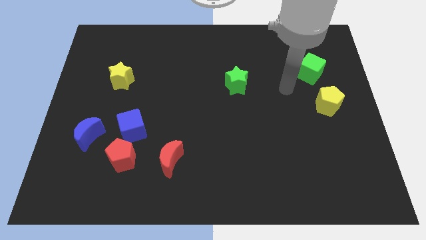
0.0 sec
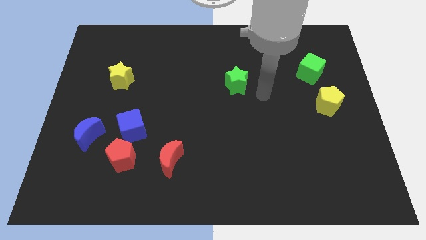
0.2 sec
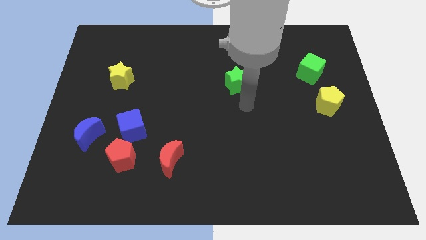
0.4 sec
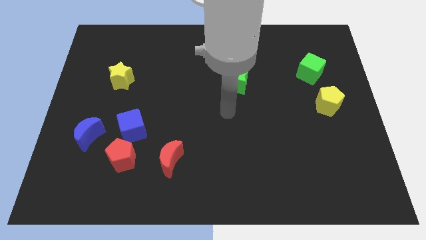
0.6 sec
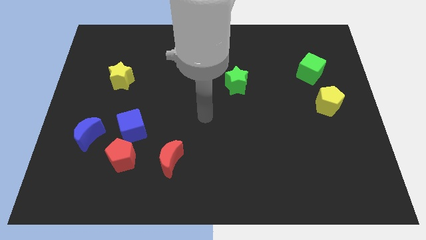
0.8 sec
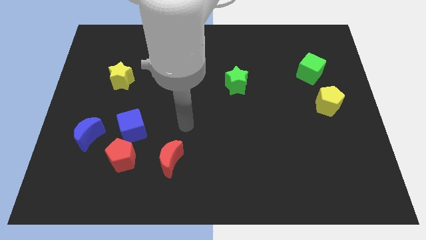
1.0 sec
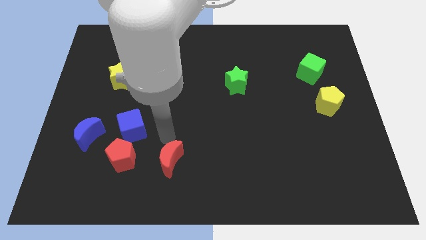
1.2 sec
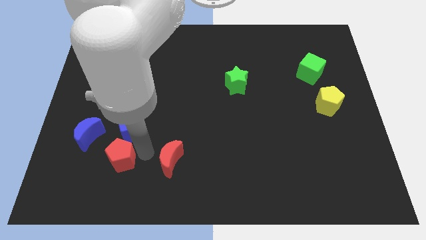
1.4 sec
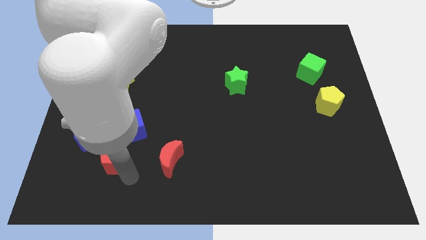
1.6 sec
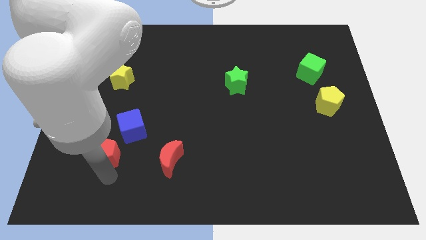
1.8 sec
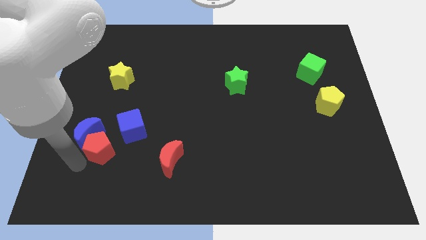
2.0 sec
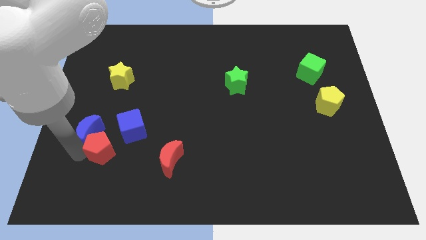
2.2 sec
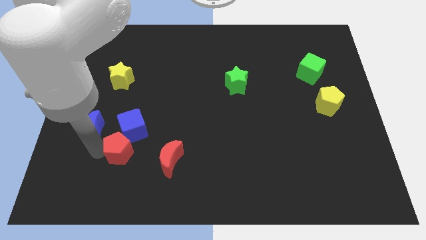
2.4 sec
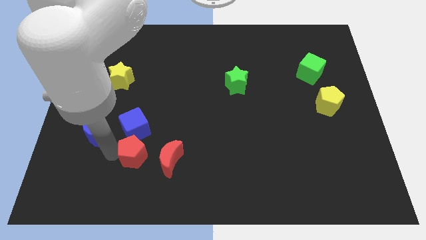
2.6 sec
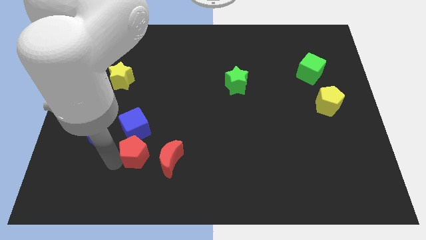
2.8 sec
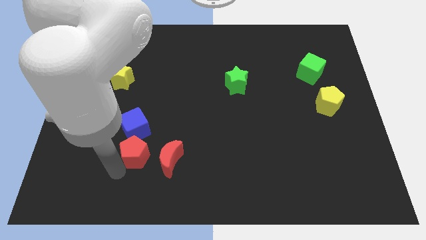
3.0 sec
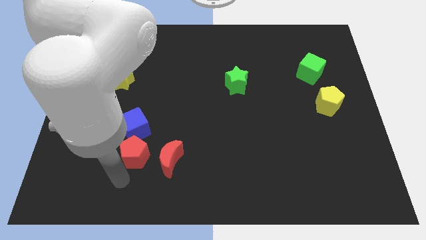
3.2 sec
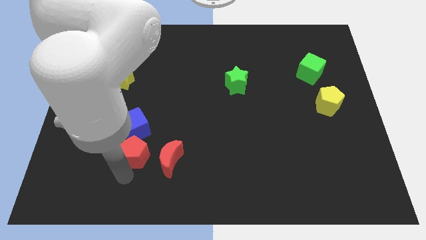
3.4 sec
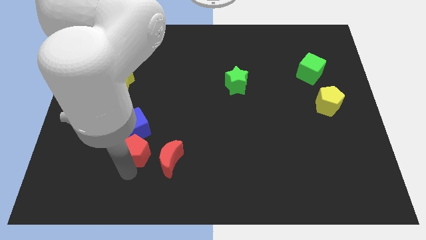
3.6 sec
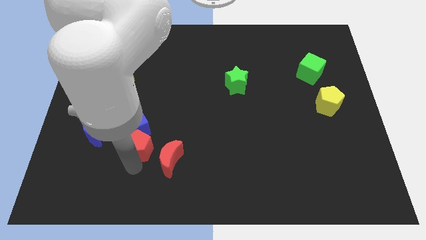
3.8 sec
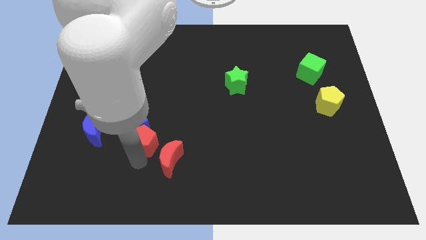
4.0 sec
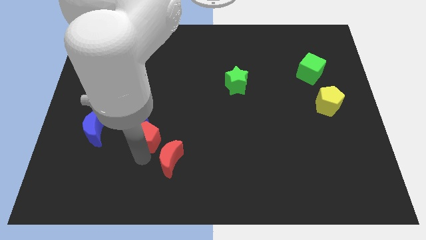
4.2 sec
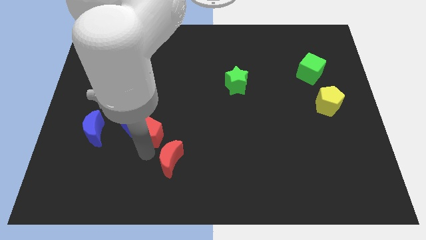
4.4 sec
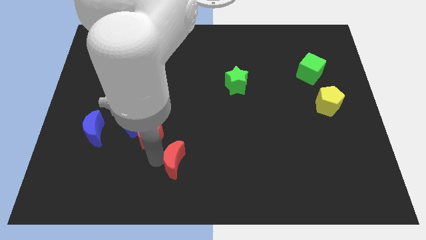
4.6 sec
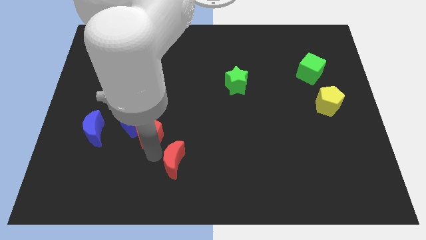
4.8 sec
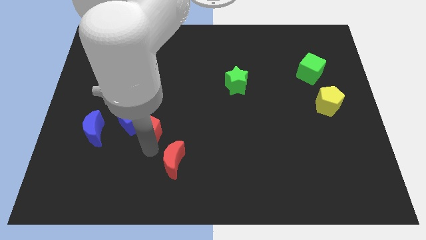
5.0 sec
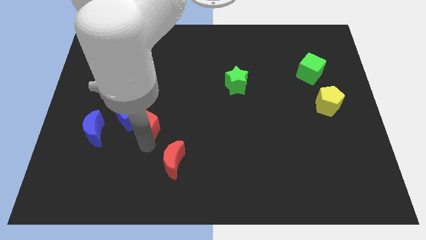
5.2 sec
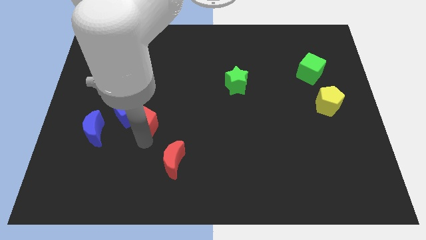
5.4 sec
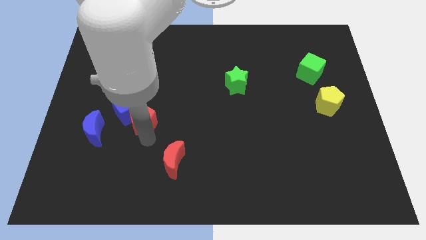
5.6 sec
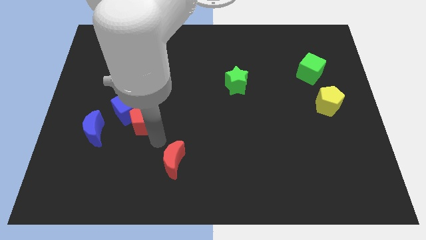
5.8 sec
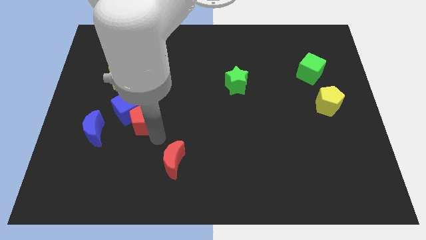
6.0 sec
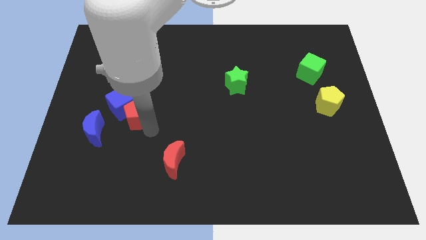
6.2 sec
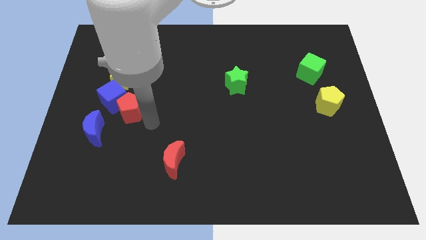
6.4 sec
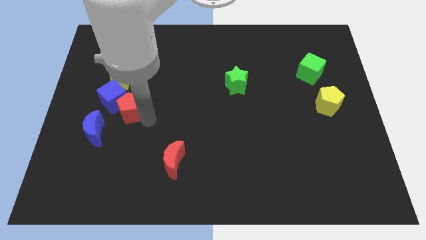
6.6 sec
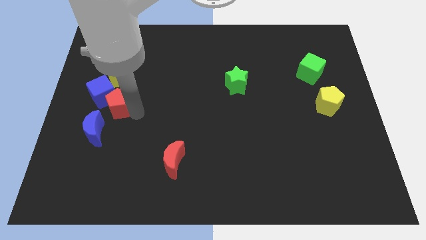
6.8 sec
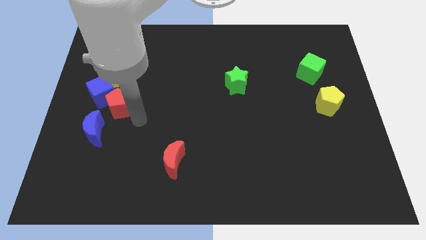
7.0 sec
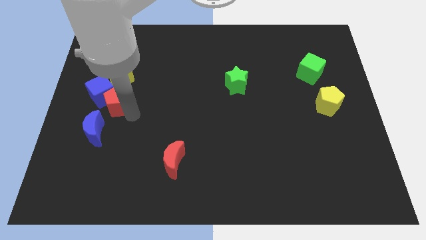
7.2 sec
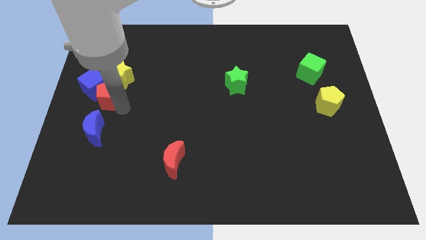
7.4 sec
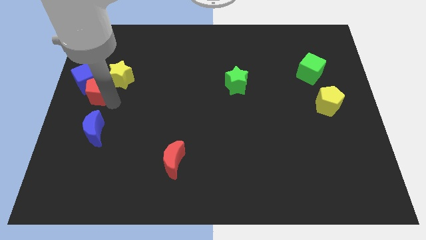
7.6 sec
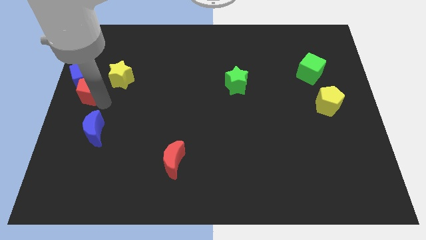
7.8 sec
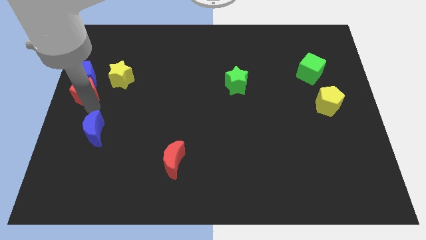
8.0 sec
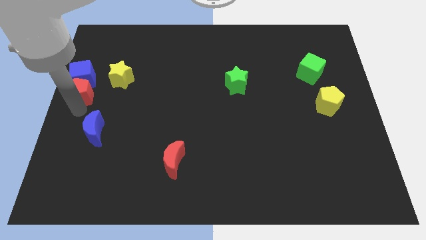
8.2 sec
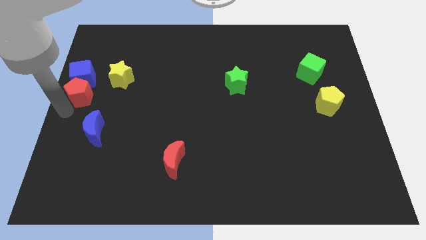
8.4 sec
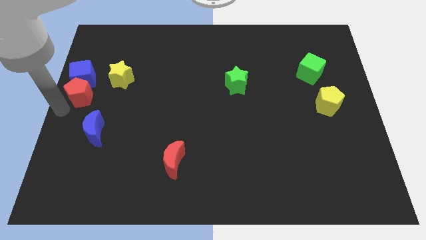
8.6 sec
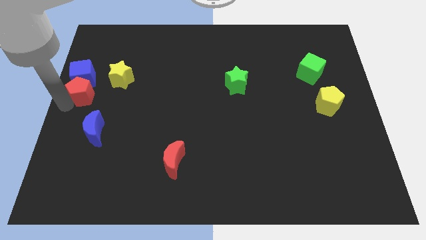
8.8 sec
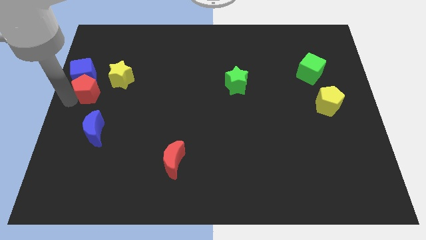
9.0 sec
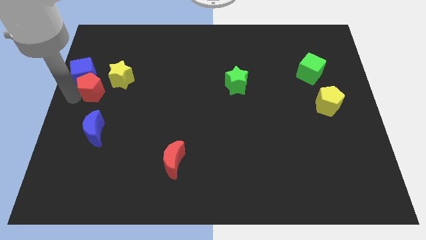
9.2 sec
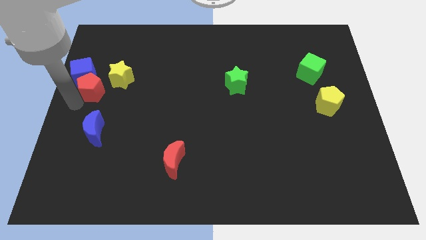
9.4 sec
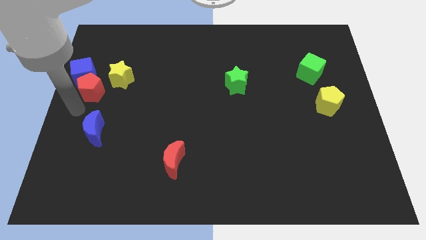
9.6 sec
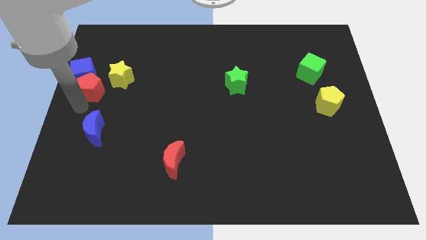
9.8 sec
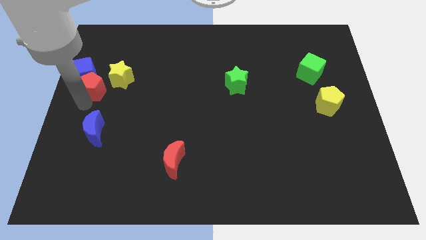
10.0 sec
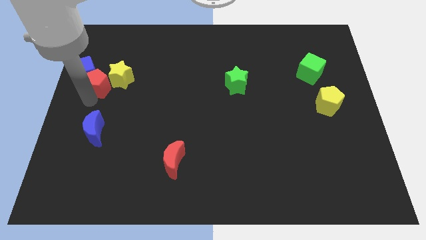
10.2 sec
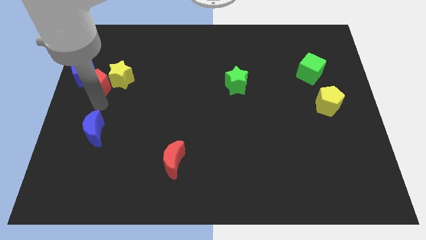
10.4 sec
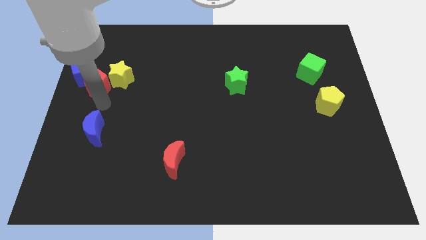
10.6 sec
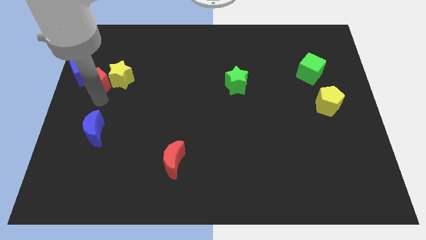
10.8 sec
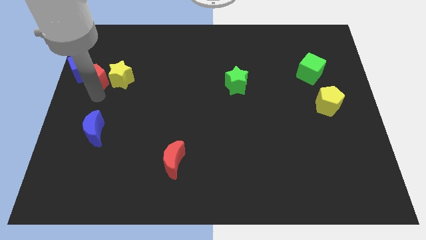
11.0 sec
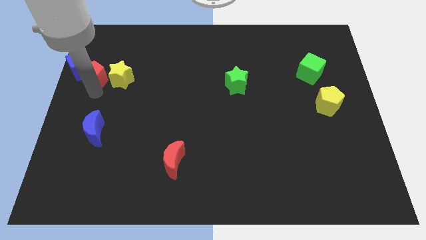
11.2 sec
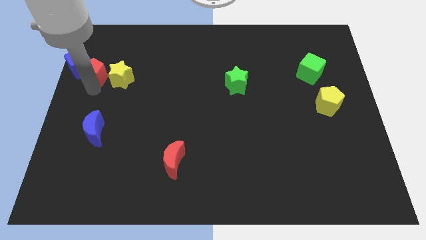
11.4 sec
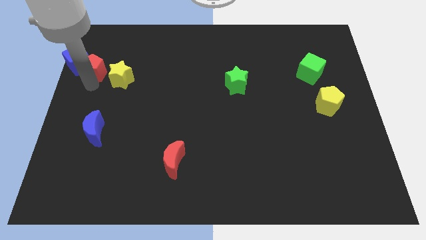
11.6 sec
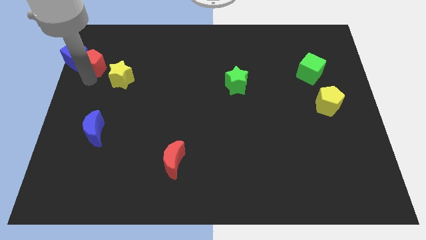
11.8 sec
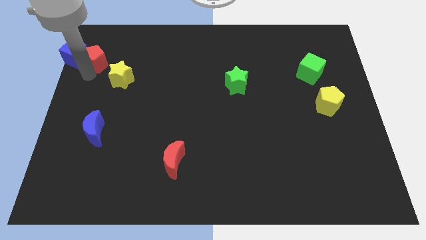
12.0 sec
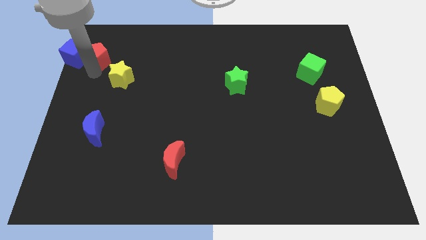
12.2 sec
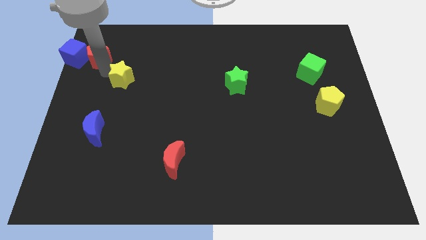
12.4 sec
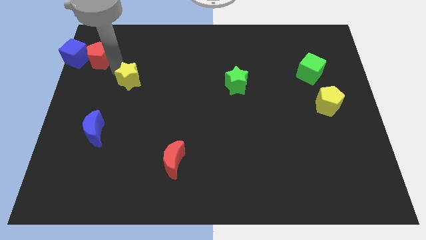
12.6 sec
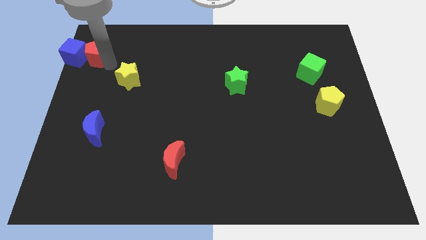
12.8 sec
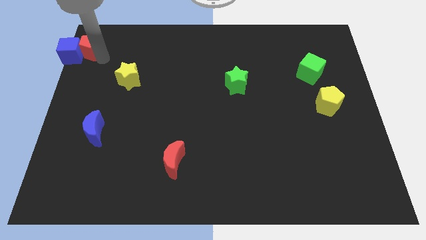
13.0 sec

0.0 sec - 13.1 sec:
push the red pentagon to the top left of the board
